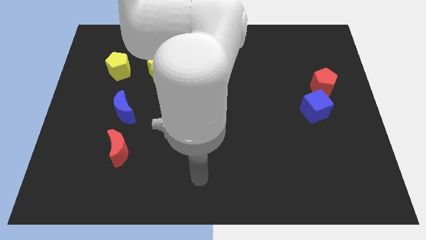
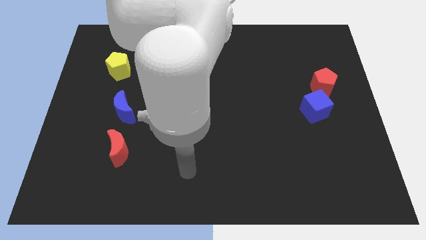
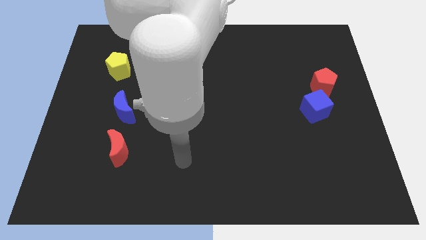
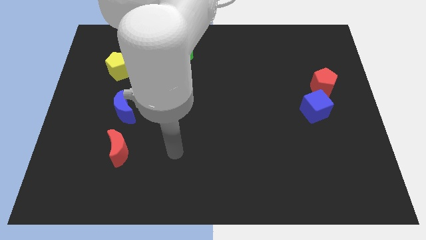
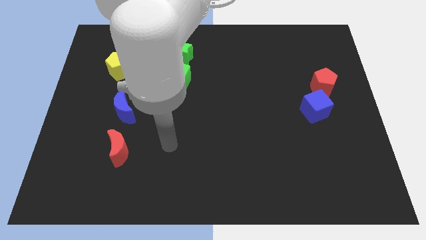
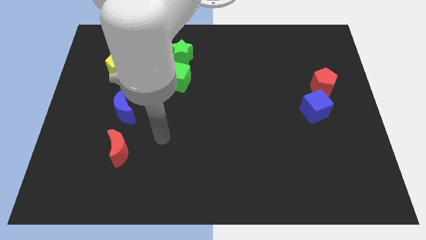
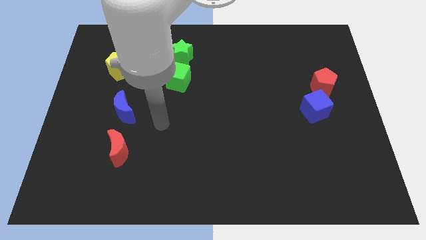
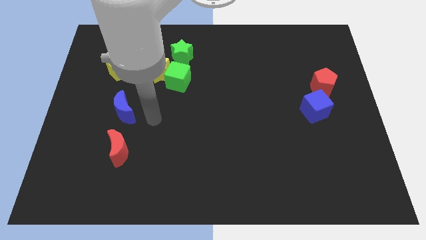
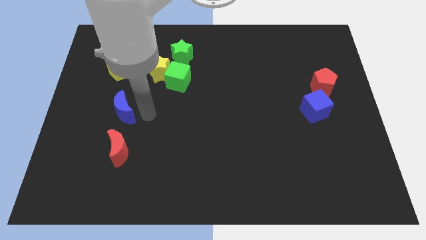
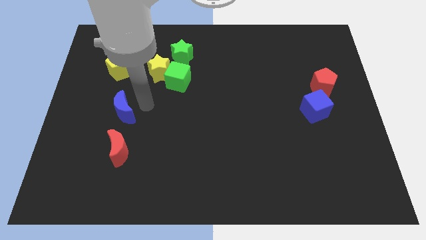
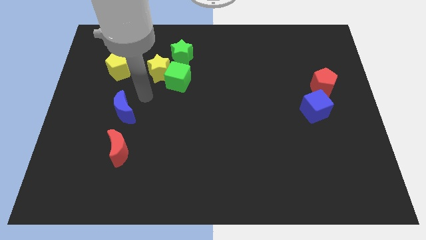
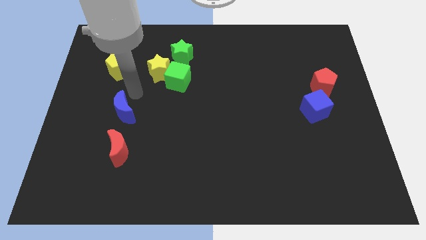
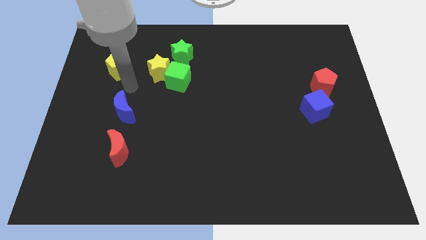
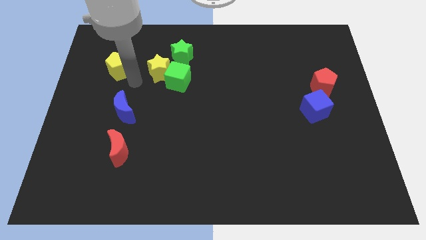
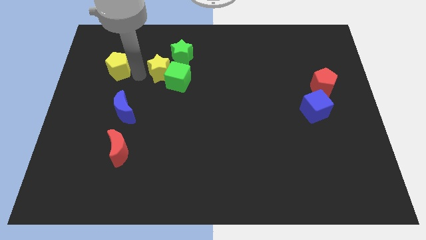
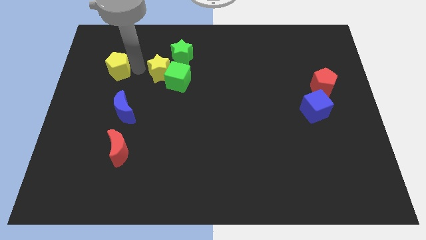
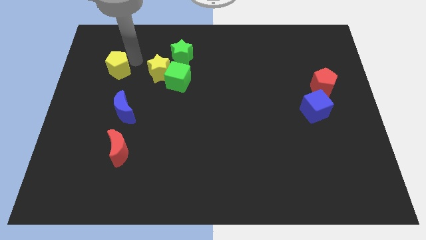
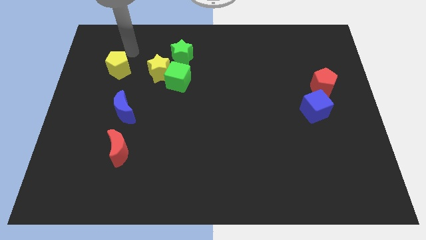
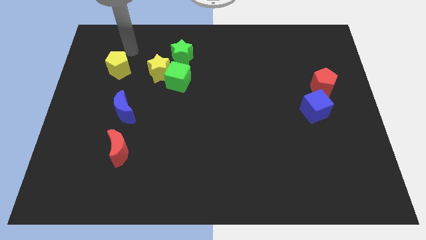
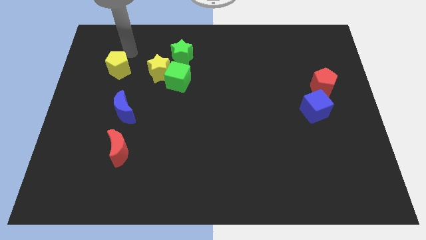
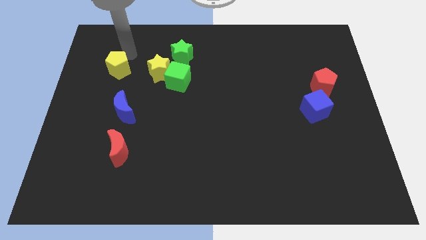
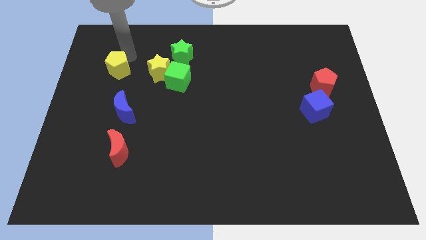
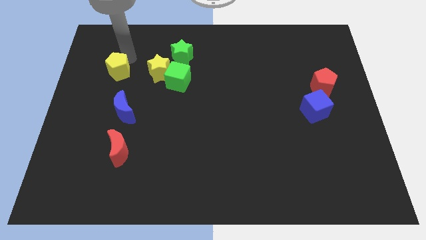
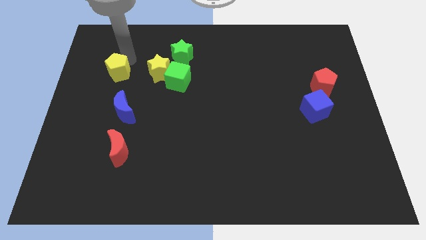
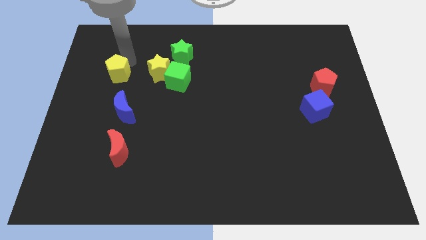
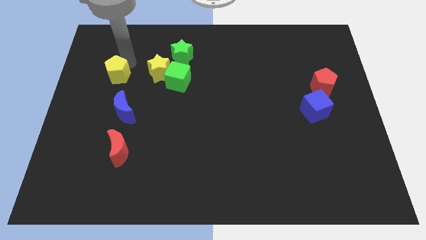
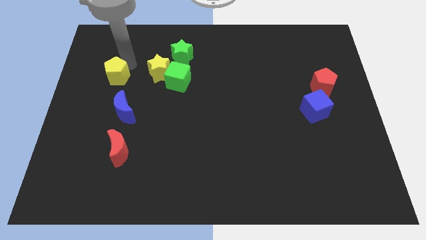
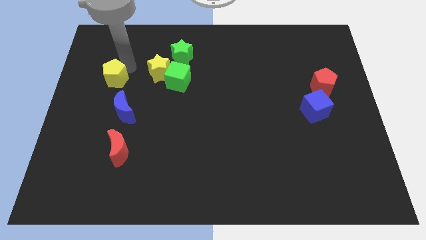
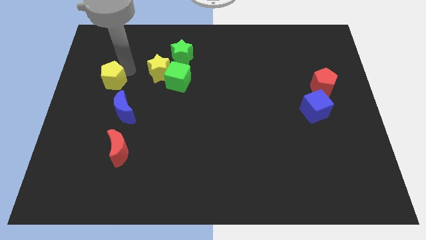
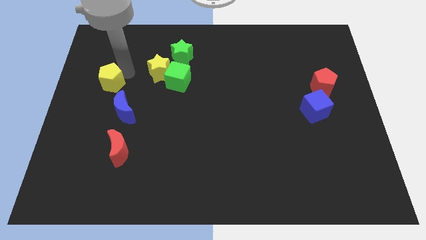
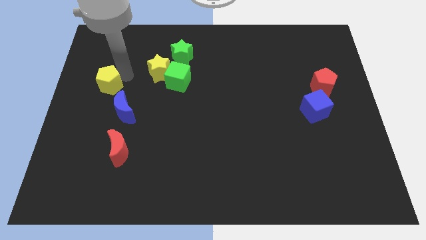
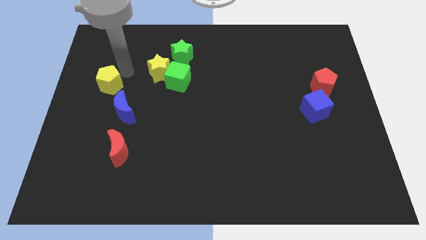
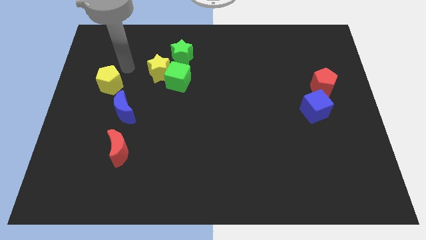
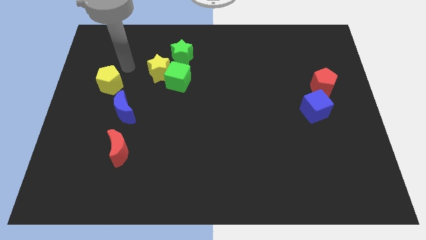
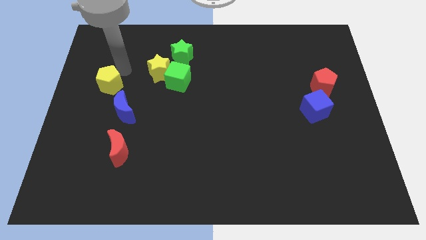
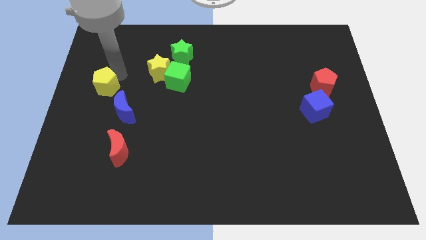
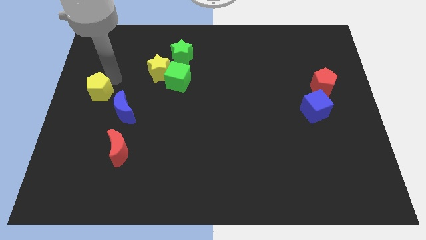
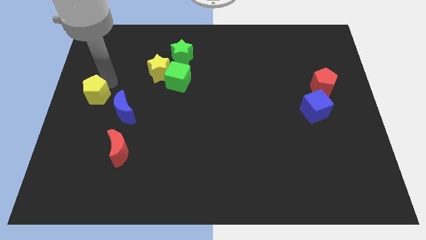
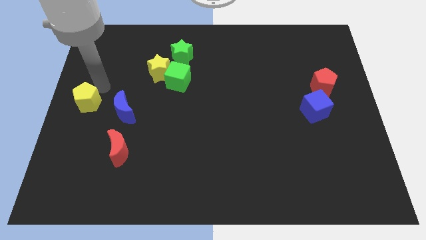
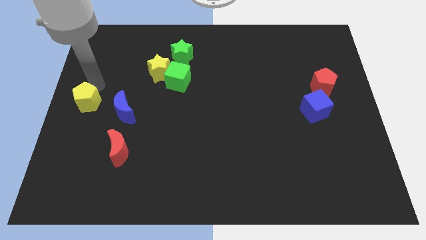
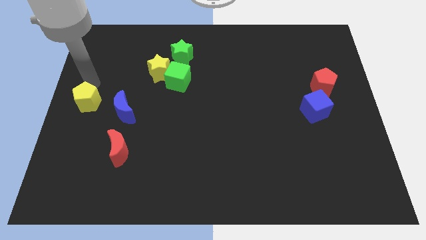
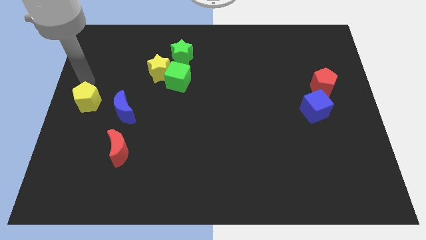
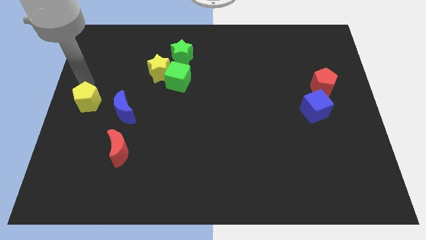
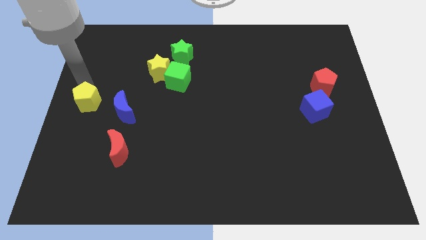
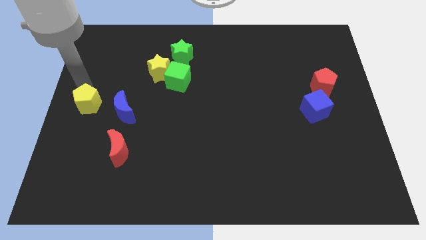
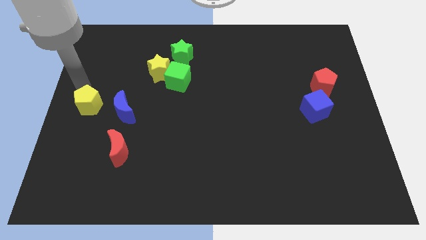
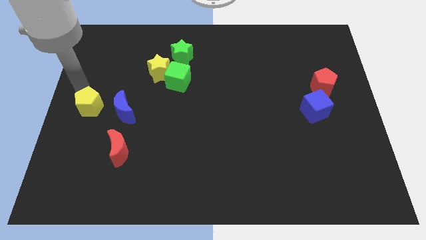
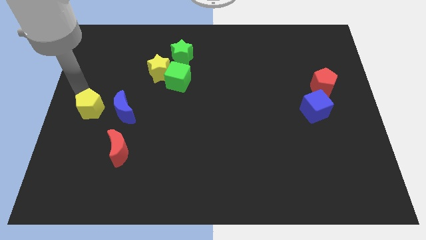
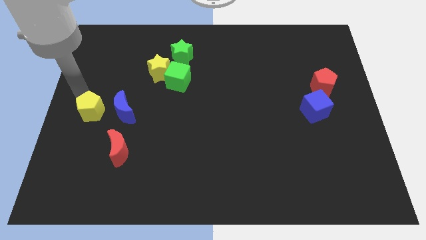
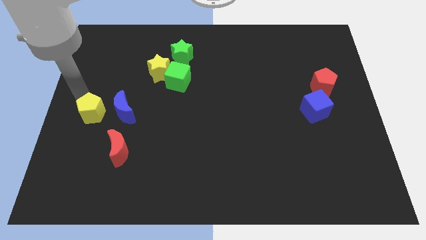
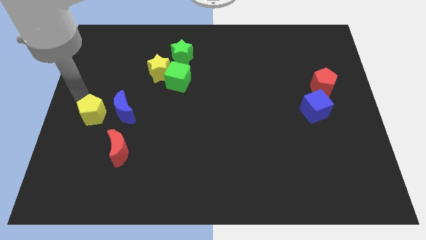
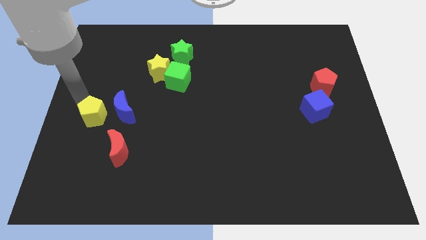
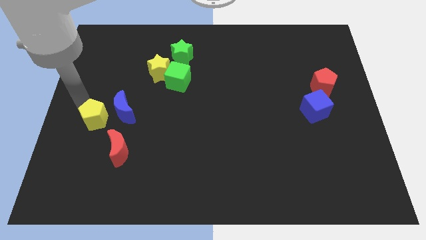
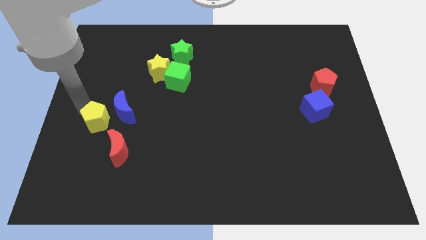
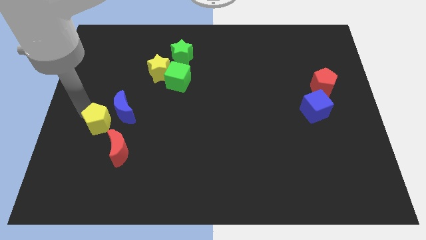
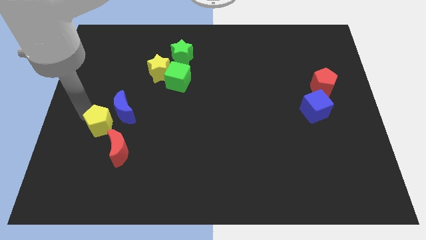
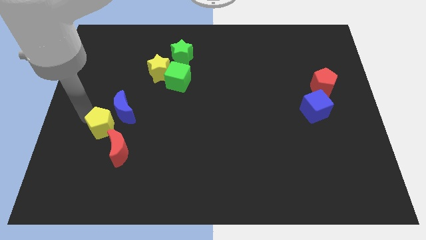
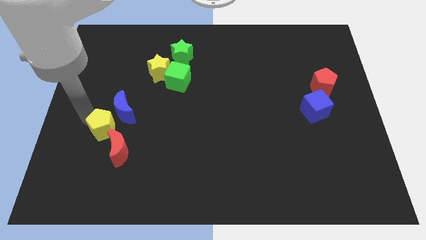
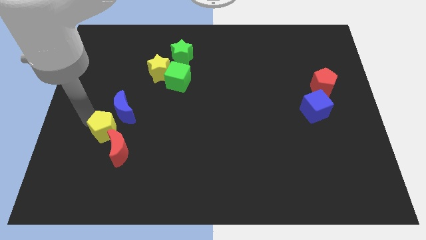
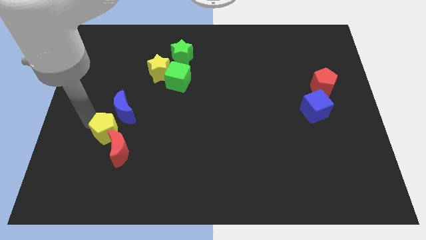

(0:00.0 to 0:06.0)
put the yellow pentagon close to the red moon

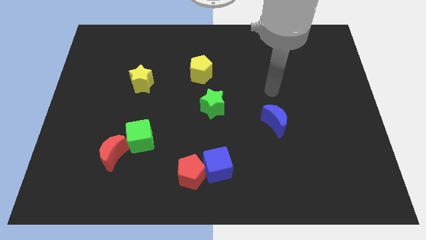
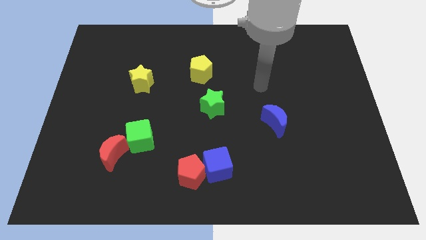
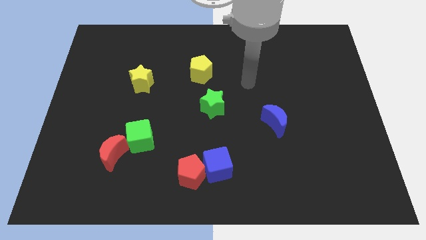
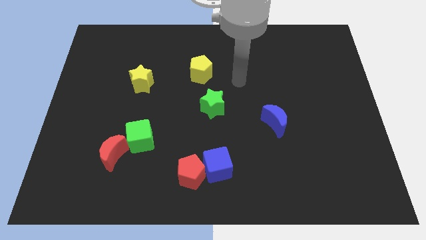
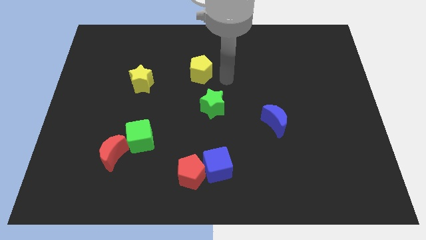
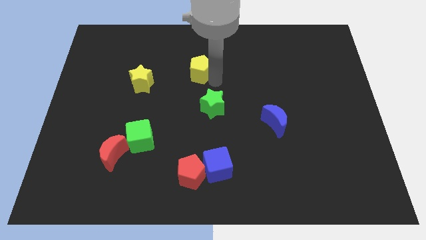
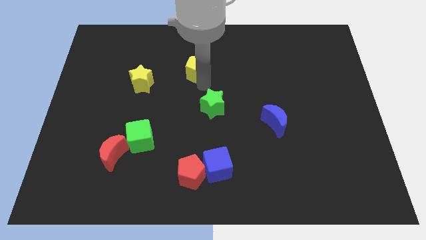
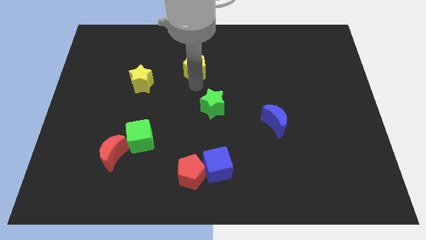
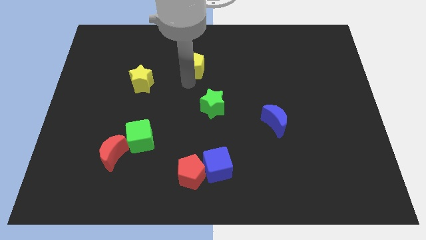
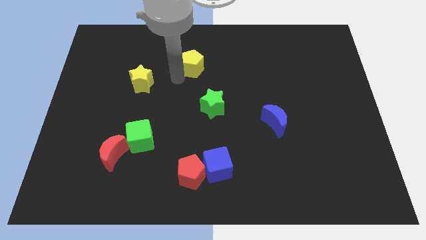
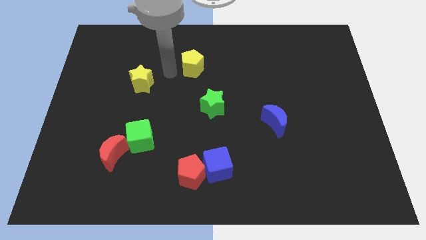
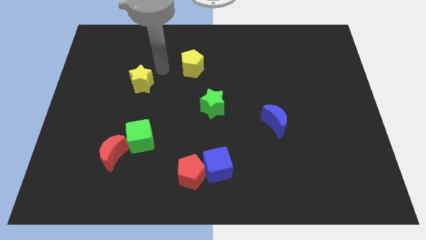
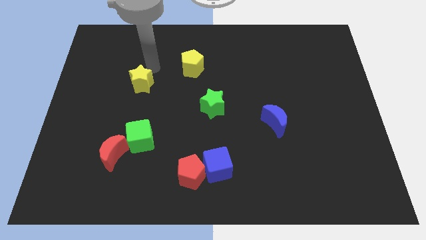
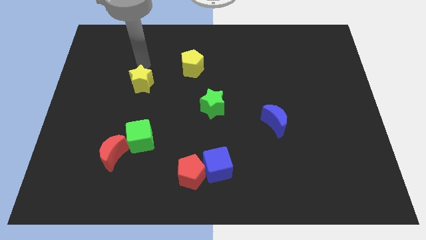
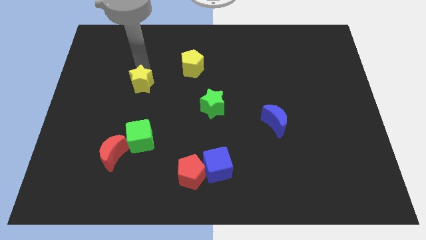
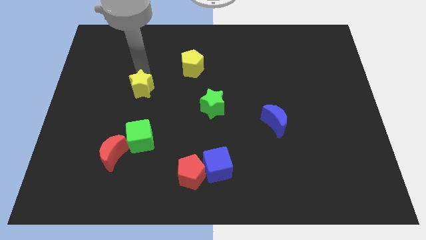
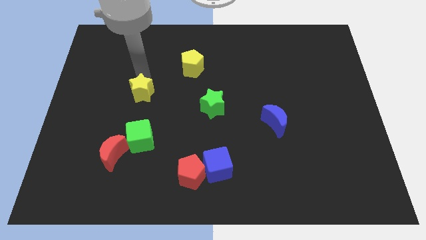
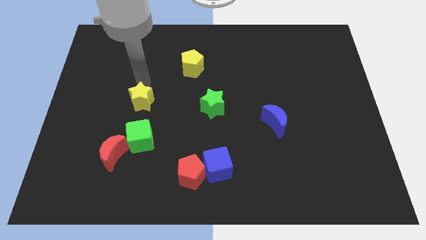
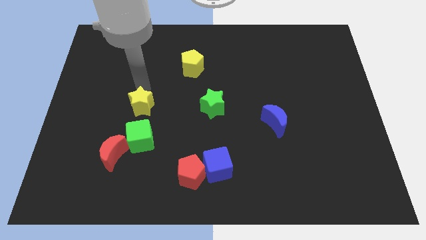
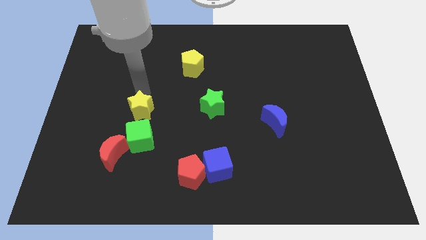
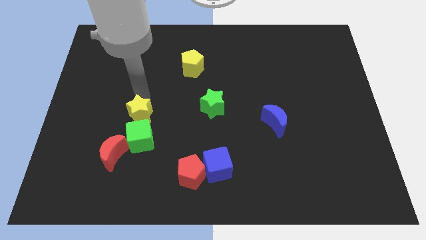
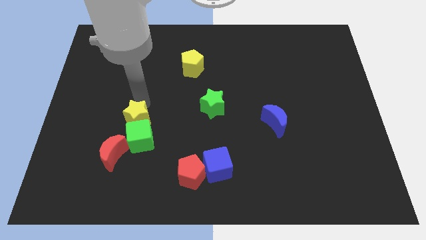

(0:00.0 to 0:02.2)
move the yellow star to the green cube
